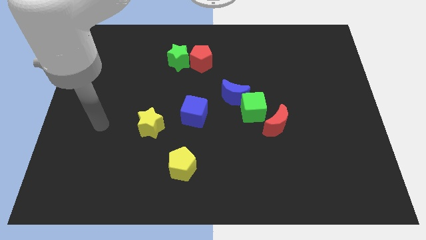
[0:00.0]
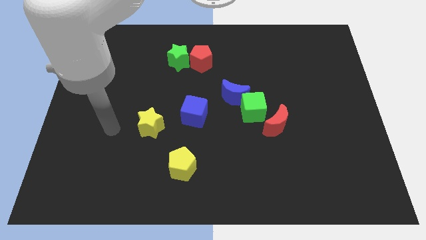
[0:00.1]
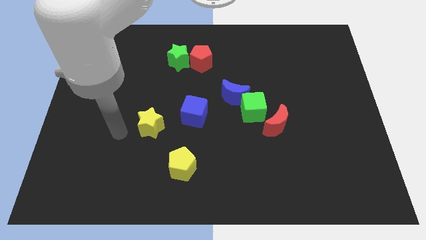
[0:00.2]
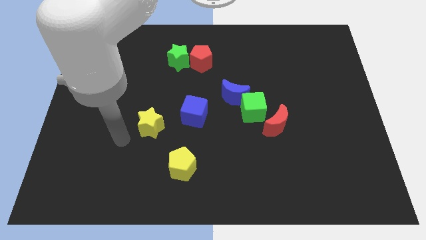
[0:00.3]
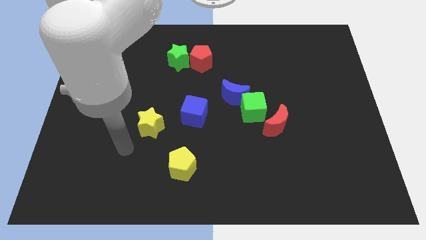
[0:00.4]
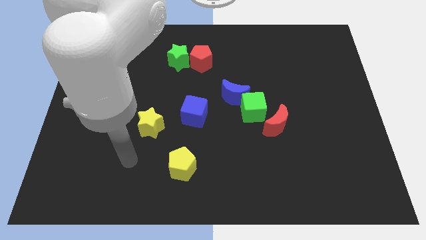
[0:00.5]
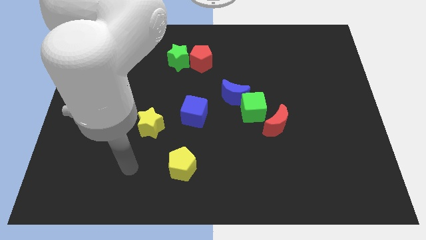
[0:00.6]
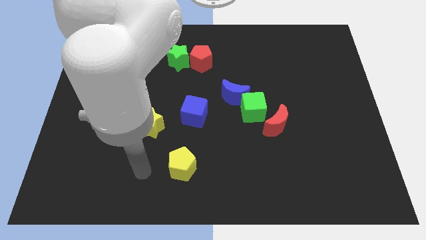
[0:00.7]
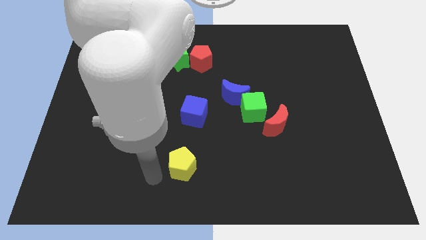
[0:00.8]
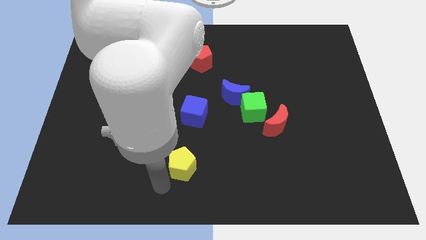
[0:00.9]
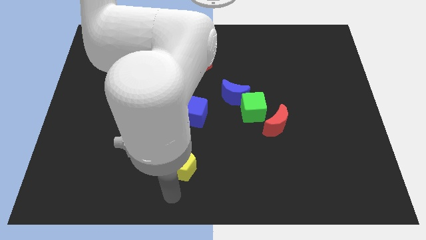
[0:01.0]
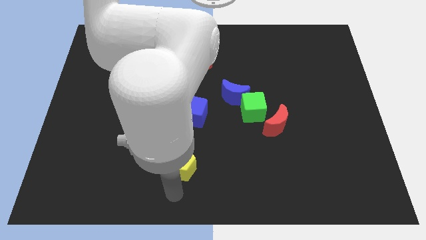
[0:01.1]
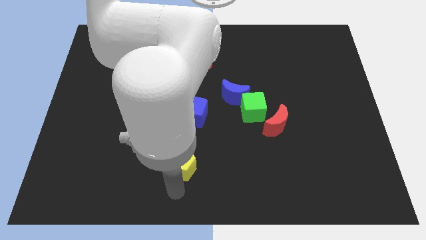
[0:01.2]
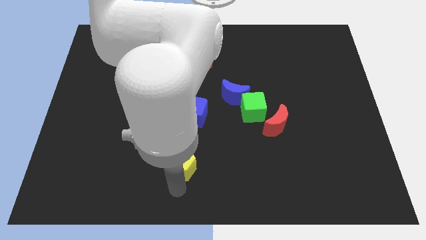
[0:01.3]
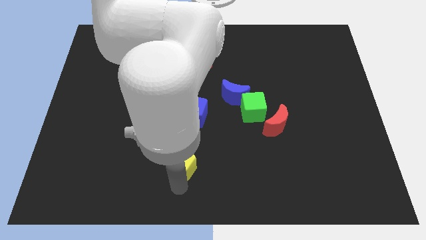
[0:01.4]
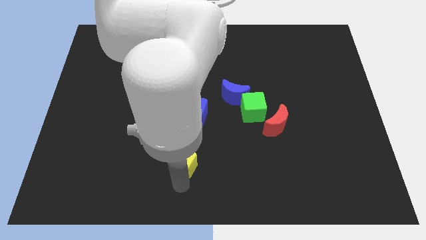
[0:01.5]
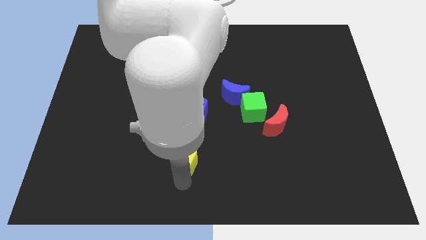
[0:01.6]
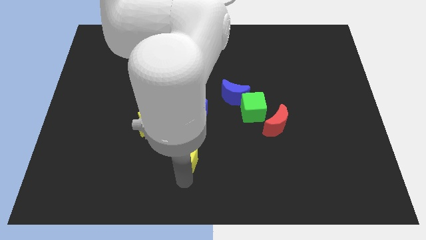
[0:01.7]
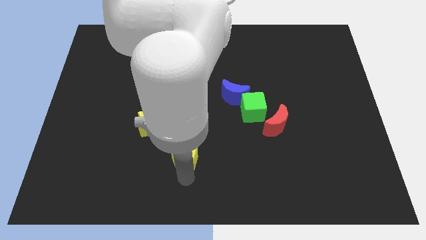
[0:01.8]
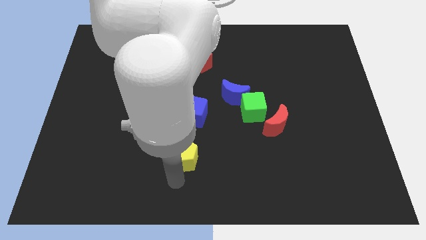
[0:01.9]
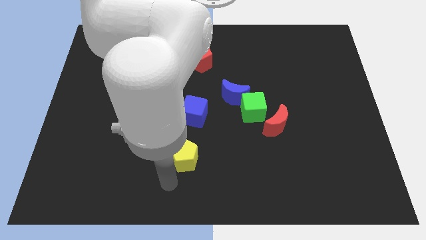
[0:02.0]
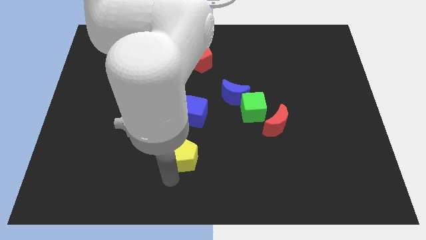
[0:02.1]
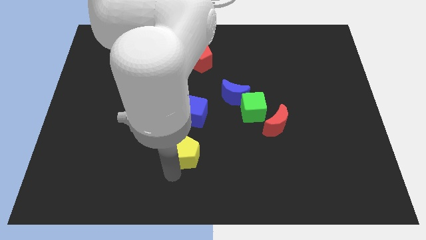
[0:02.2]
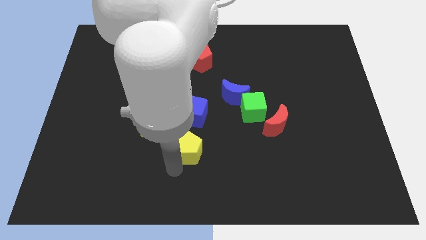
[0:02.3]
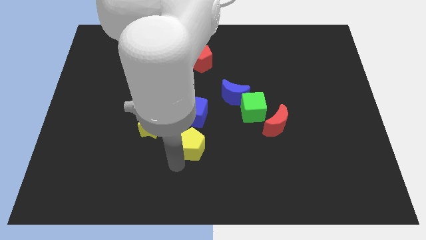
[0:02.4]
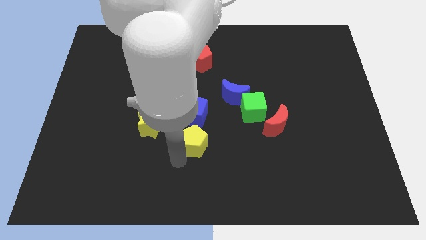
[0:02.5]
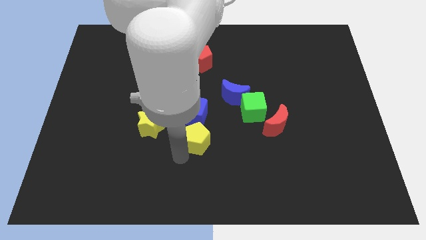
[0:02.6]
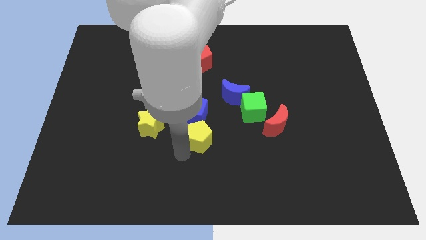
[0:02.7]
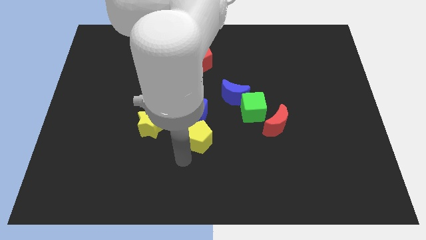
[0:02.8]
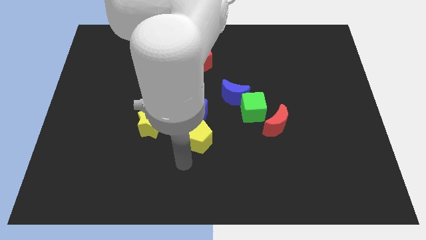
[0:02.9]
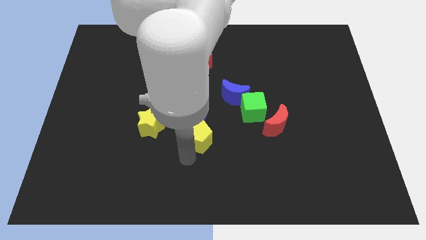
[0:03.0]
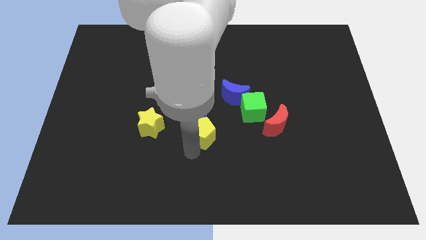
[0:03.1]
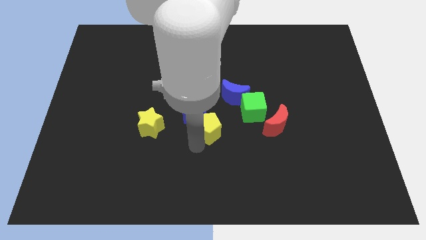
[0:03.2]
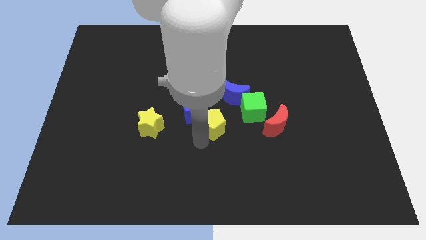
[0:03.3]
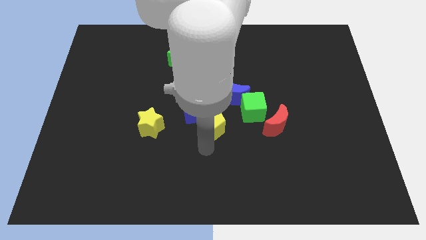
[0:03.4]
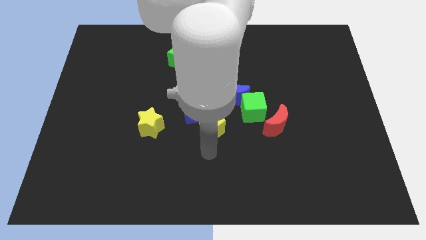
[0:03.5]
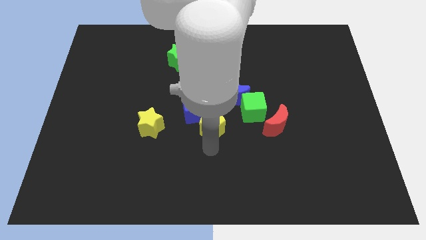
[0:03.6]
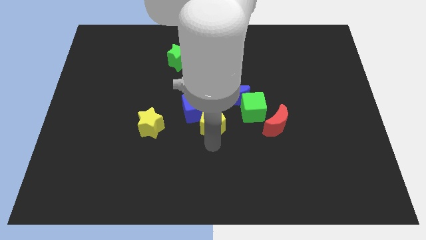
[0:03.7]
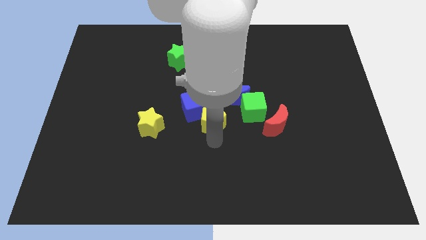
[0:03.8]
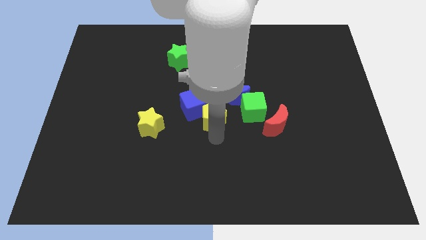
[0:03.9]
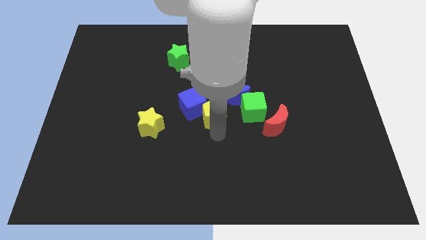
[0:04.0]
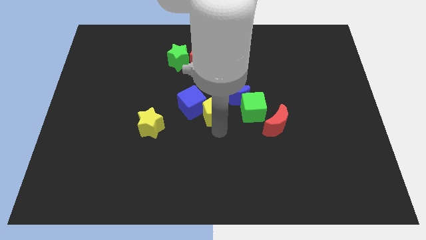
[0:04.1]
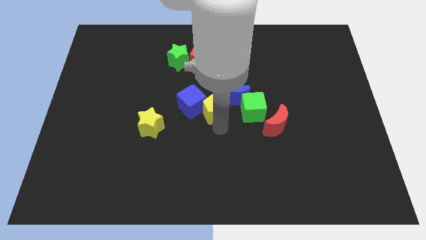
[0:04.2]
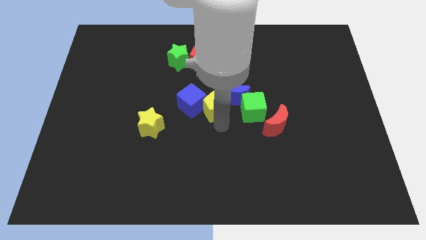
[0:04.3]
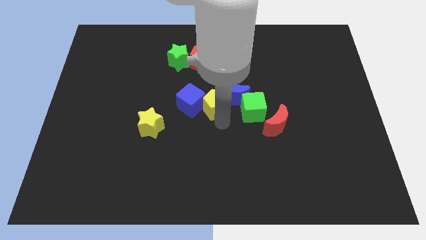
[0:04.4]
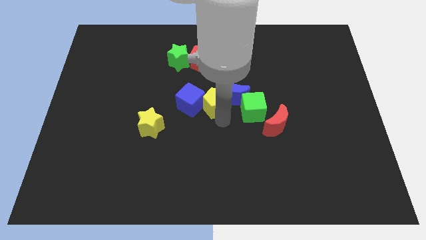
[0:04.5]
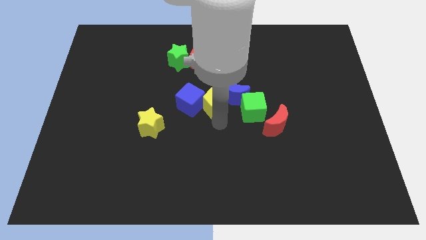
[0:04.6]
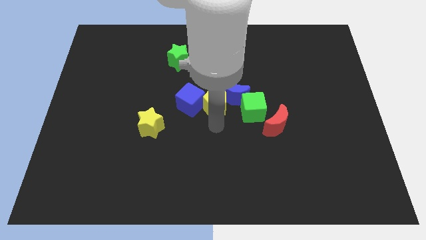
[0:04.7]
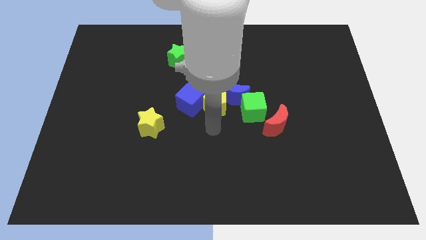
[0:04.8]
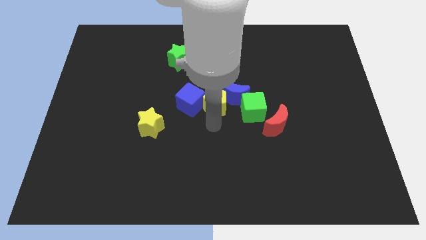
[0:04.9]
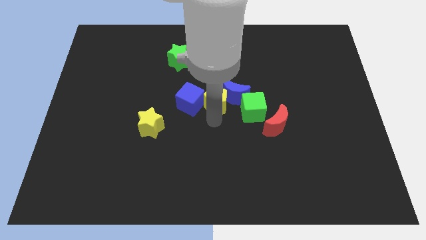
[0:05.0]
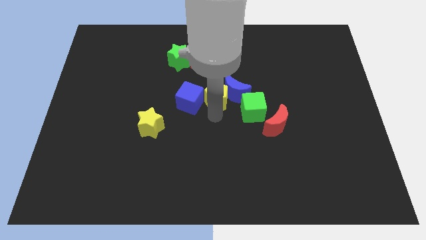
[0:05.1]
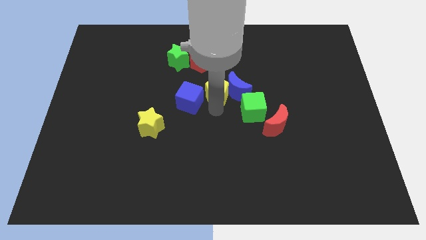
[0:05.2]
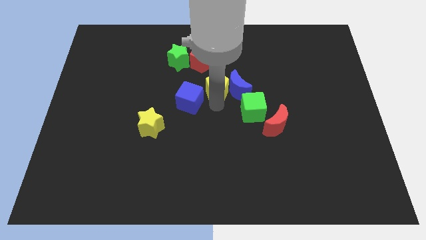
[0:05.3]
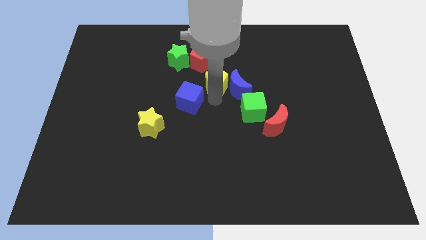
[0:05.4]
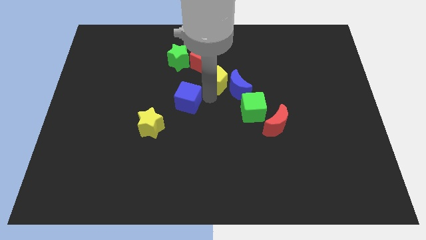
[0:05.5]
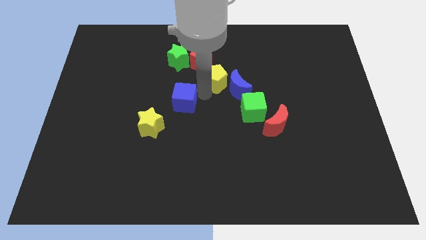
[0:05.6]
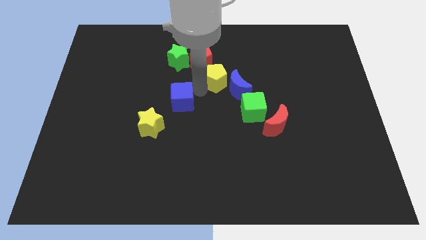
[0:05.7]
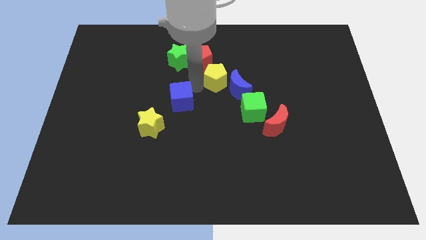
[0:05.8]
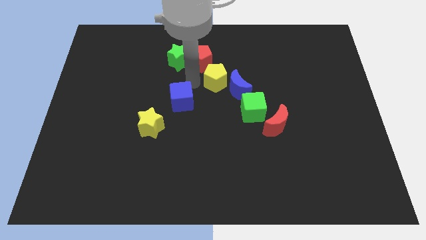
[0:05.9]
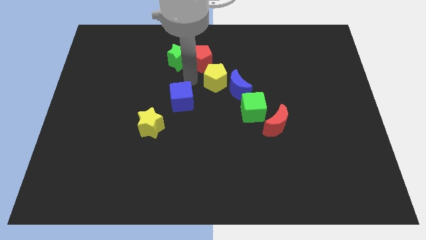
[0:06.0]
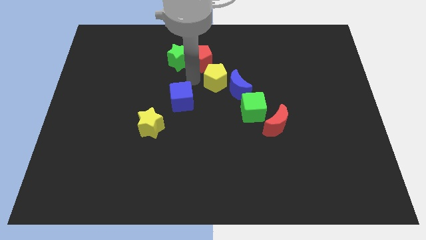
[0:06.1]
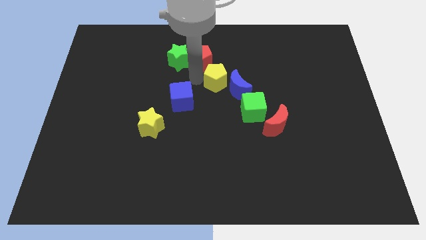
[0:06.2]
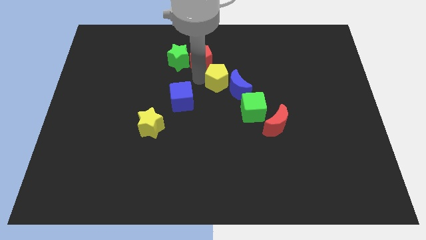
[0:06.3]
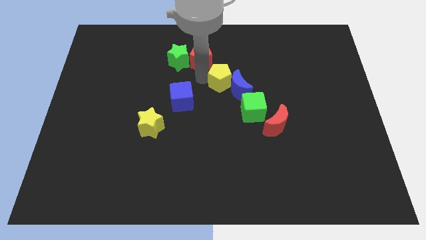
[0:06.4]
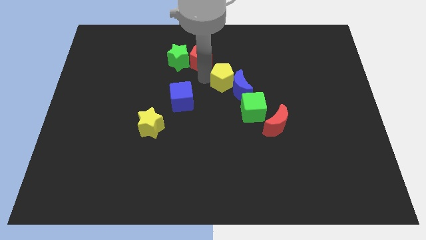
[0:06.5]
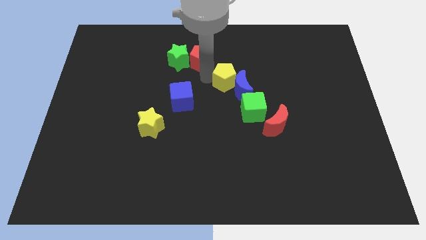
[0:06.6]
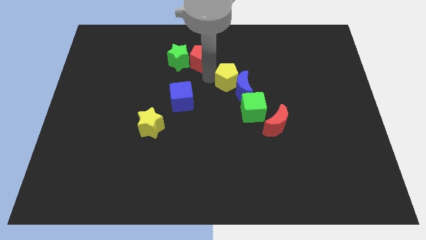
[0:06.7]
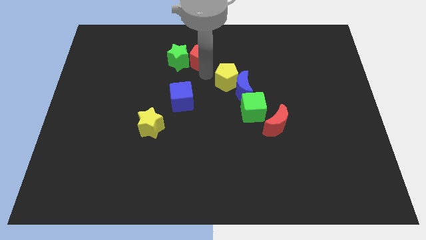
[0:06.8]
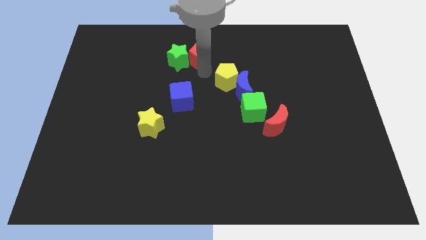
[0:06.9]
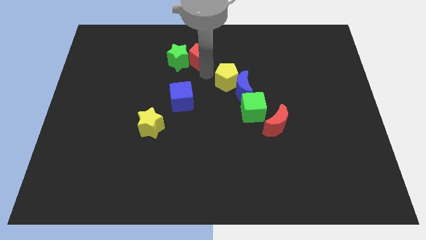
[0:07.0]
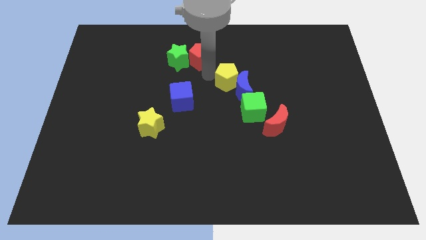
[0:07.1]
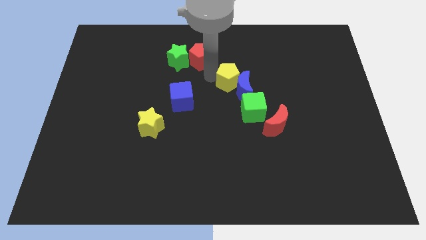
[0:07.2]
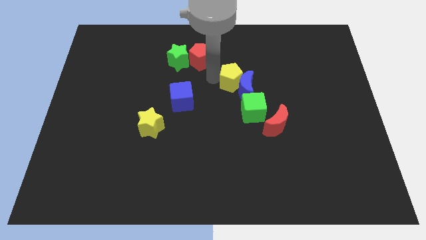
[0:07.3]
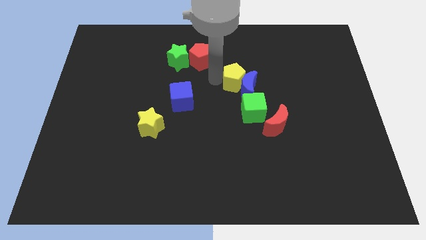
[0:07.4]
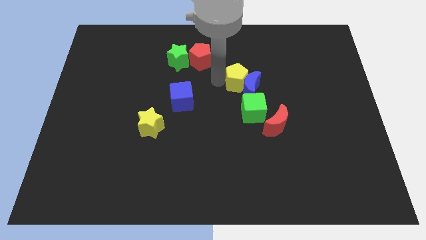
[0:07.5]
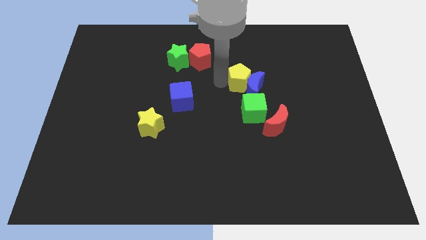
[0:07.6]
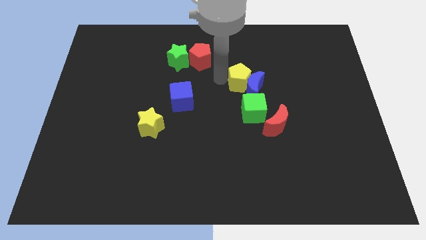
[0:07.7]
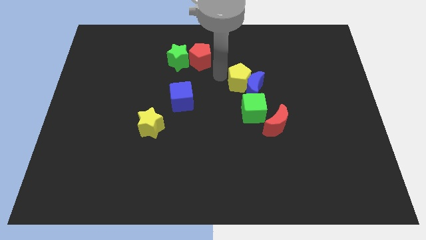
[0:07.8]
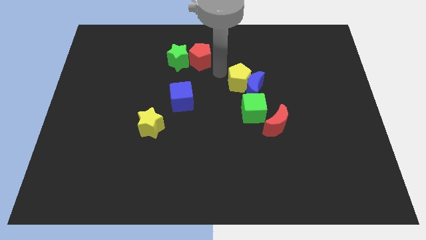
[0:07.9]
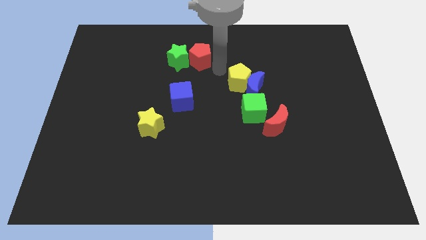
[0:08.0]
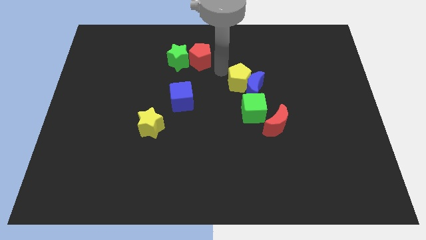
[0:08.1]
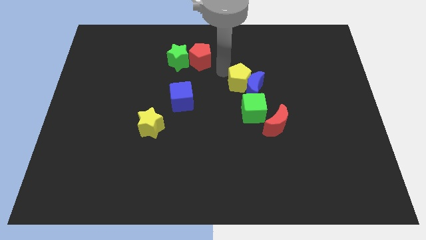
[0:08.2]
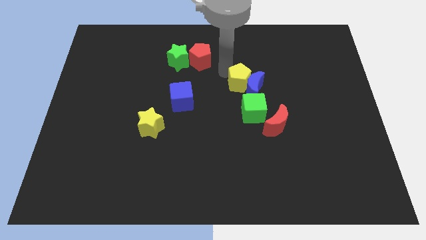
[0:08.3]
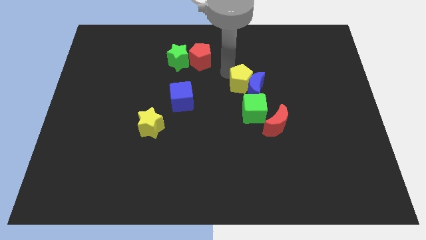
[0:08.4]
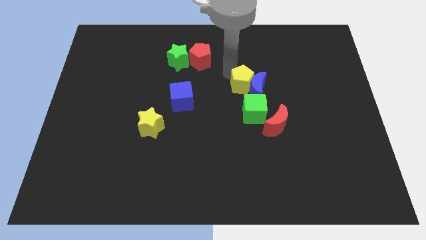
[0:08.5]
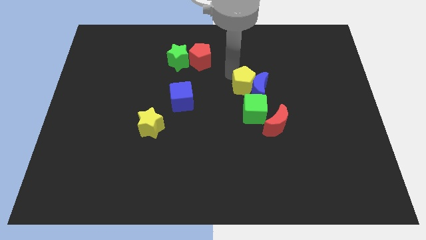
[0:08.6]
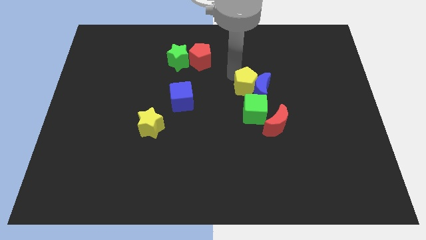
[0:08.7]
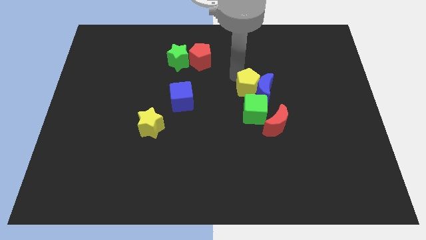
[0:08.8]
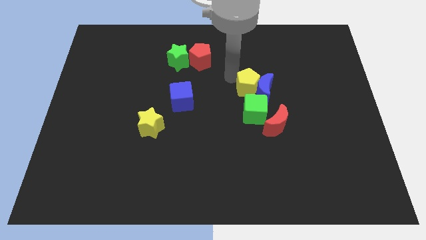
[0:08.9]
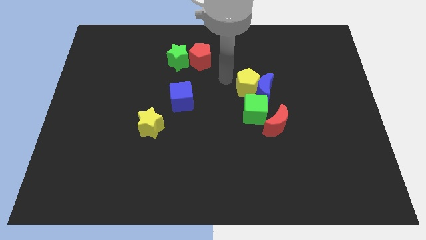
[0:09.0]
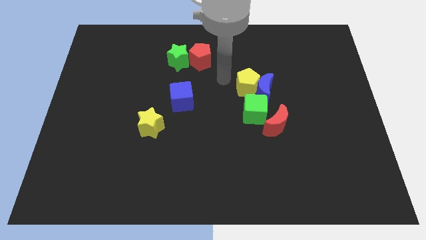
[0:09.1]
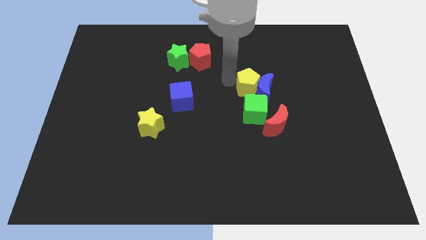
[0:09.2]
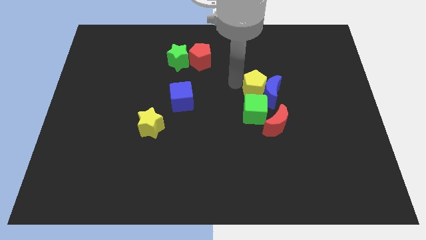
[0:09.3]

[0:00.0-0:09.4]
push the yellow pentagon diagonally up and to the right of the green cube
